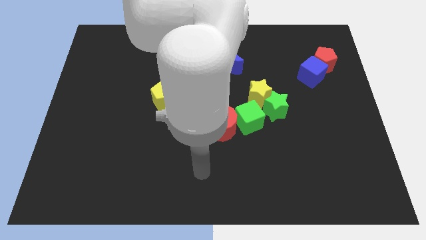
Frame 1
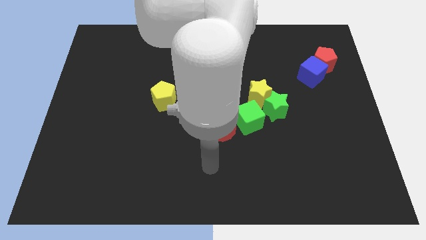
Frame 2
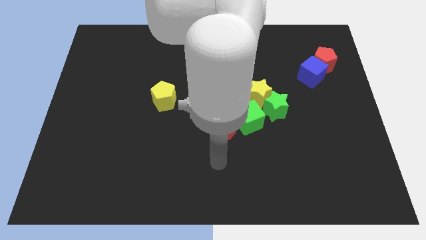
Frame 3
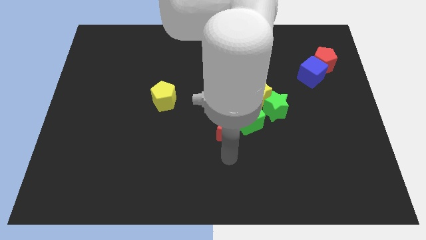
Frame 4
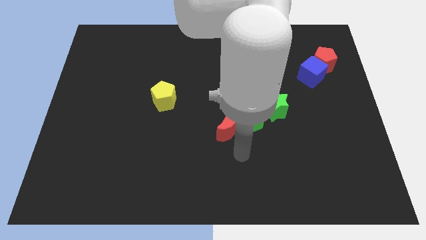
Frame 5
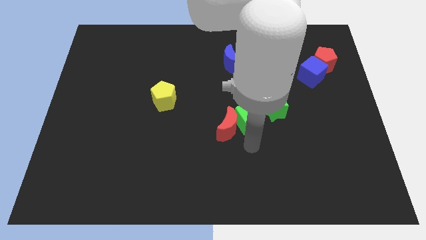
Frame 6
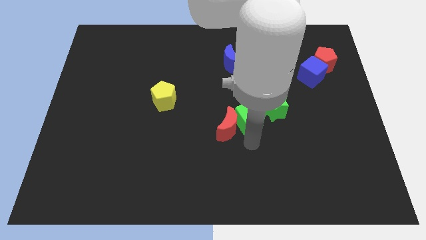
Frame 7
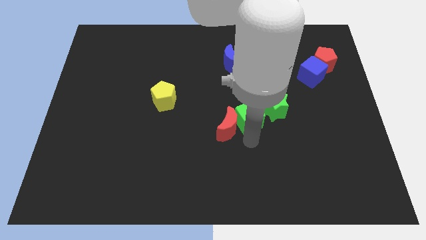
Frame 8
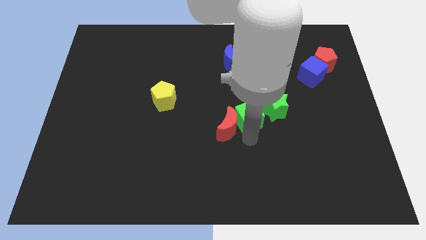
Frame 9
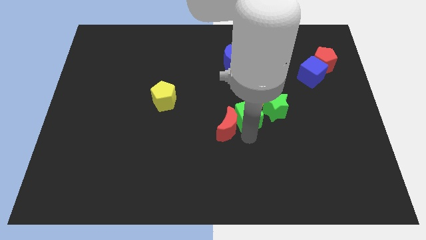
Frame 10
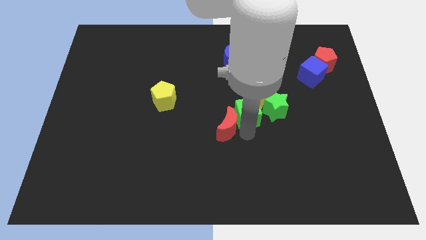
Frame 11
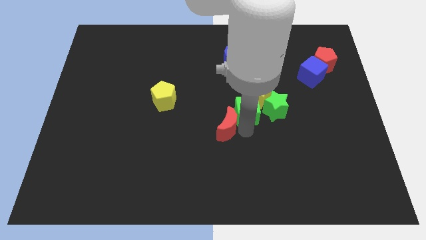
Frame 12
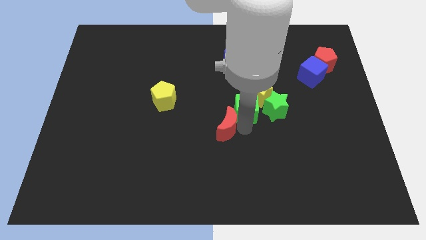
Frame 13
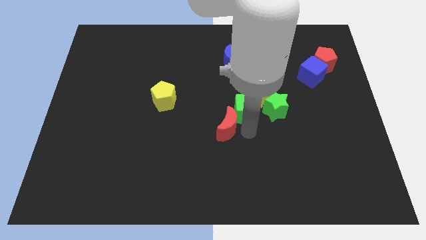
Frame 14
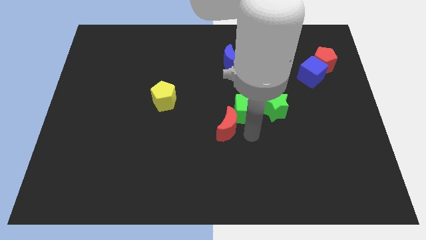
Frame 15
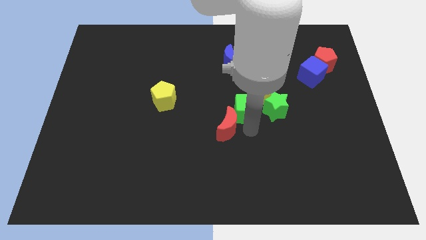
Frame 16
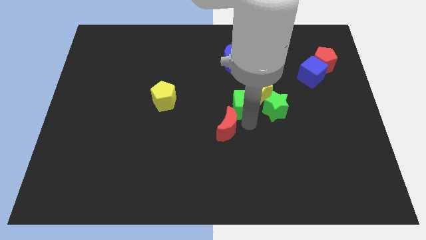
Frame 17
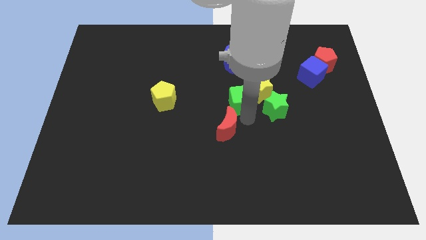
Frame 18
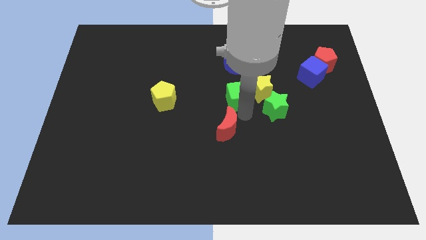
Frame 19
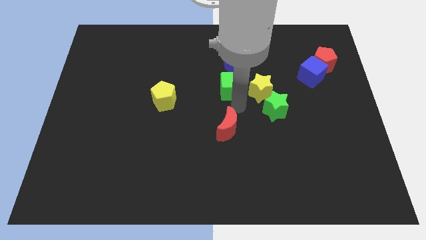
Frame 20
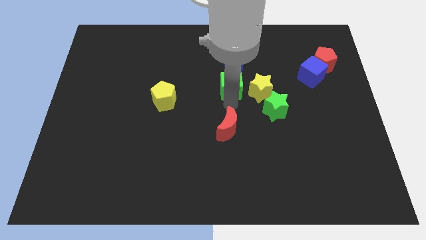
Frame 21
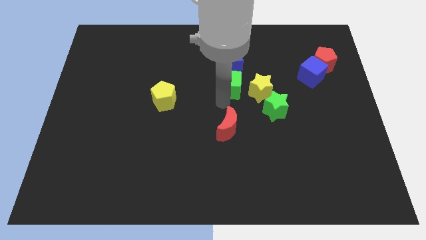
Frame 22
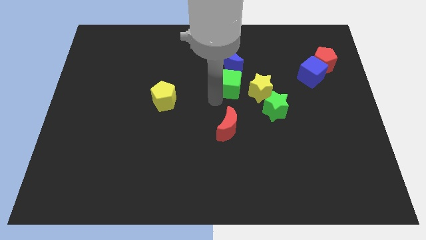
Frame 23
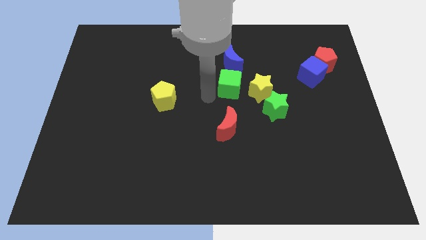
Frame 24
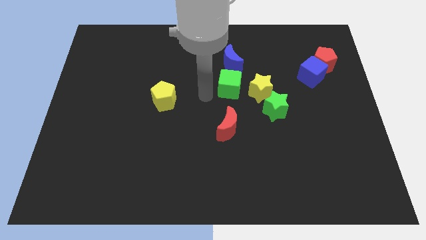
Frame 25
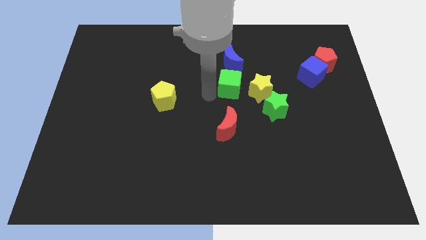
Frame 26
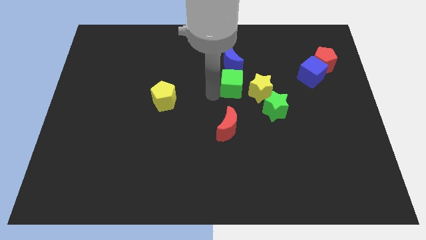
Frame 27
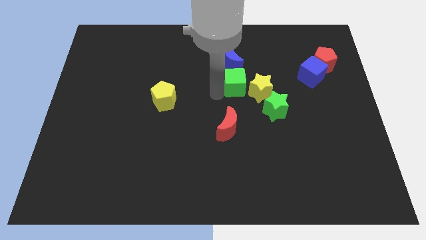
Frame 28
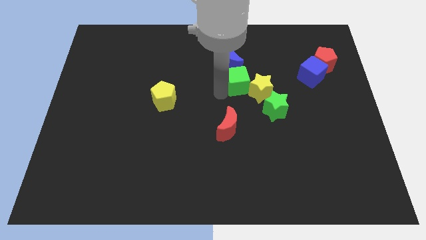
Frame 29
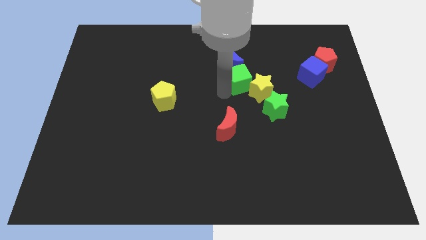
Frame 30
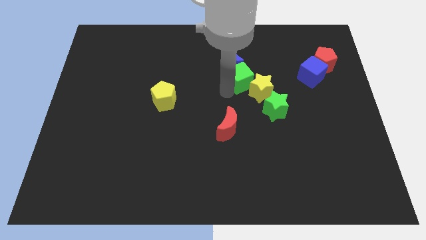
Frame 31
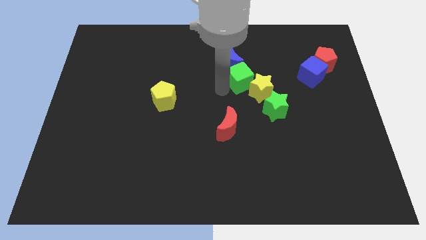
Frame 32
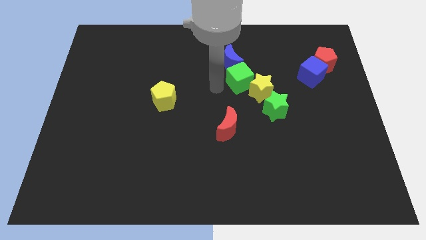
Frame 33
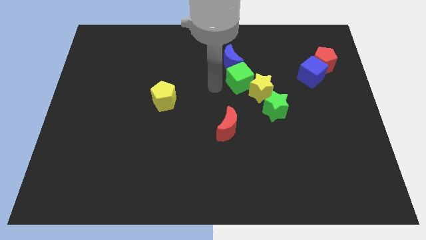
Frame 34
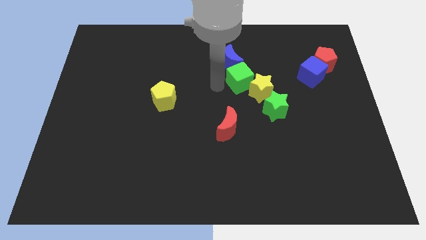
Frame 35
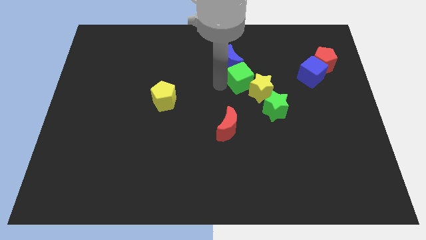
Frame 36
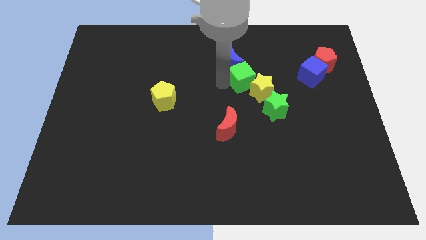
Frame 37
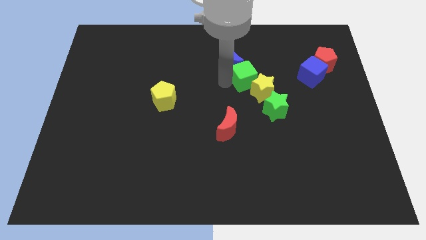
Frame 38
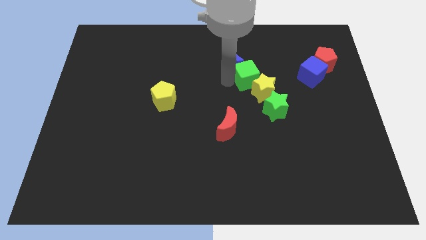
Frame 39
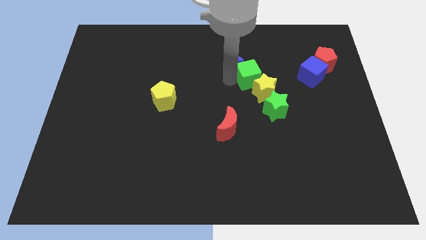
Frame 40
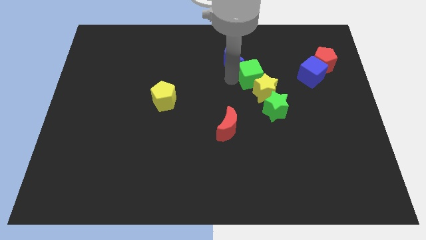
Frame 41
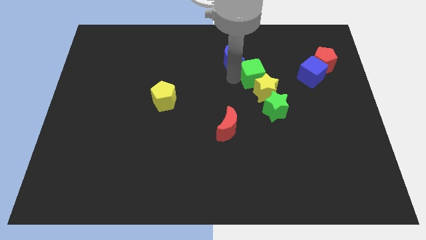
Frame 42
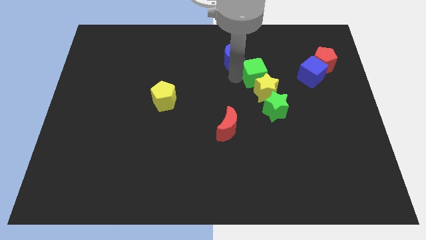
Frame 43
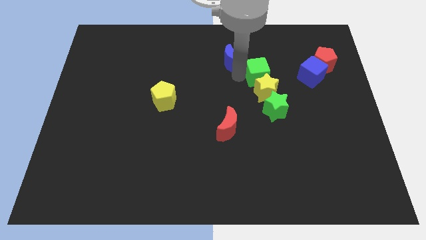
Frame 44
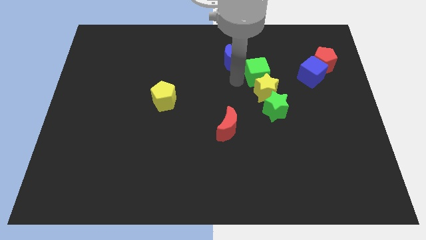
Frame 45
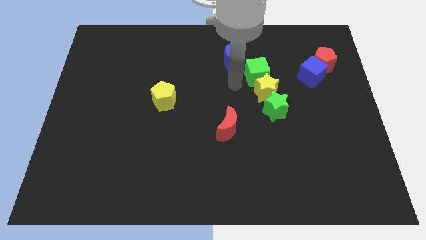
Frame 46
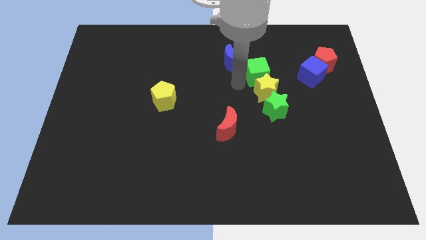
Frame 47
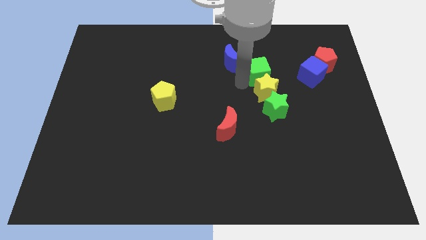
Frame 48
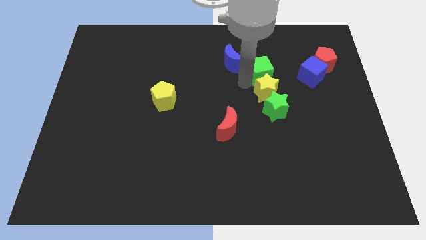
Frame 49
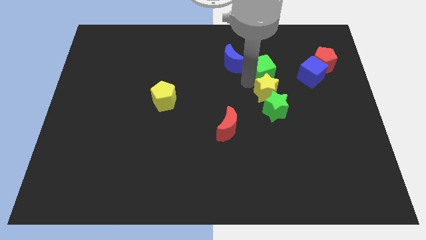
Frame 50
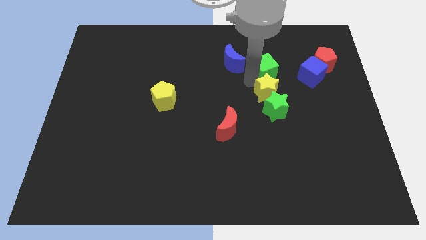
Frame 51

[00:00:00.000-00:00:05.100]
slide the green cube just left of the red pentagon

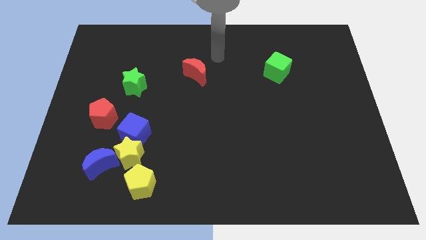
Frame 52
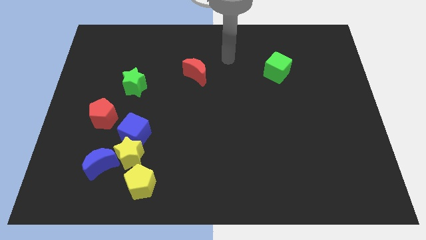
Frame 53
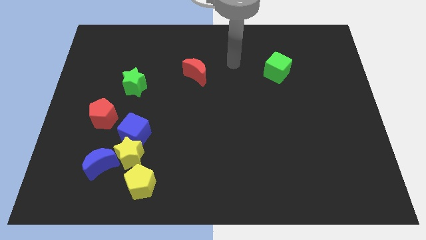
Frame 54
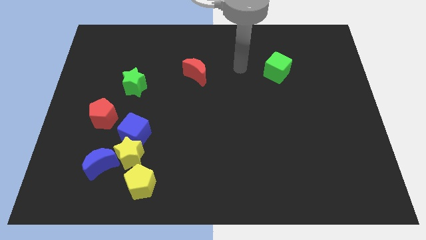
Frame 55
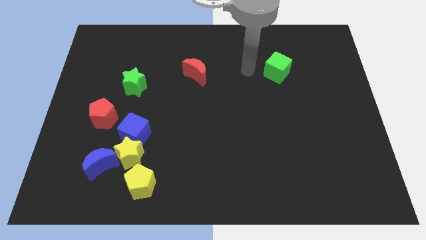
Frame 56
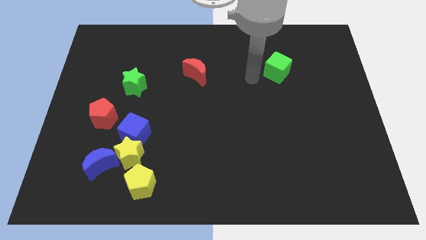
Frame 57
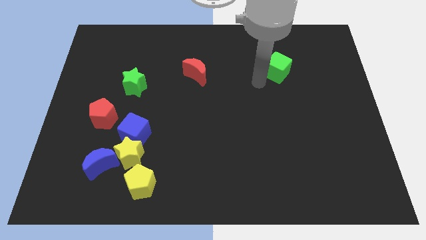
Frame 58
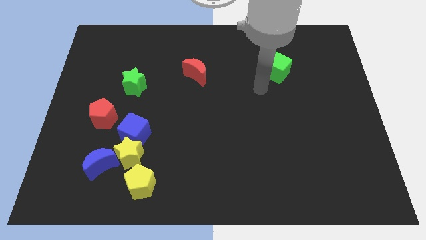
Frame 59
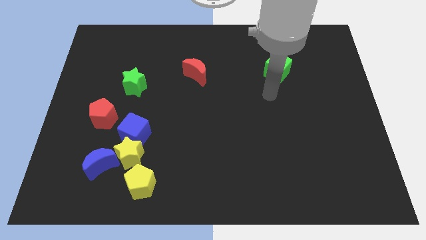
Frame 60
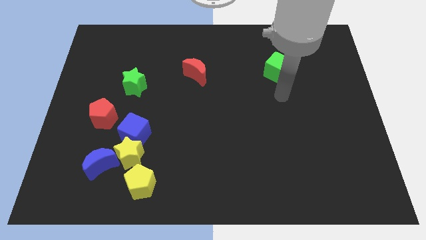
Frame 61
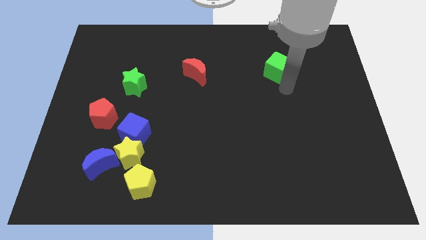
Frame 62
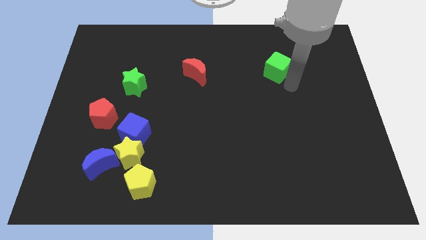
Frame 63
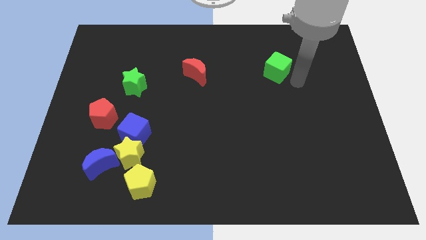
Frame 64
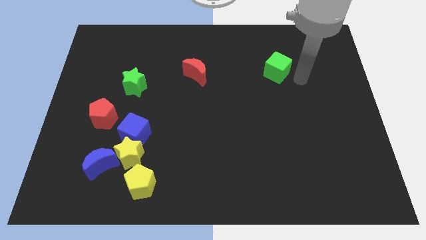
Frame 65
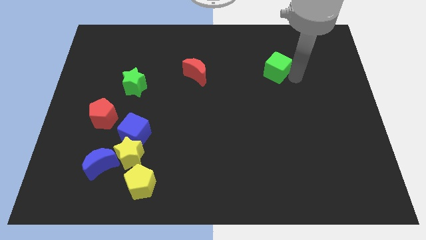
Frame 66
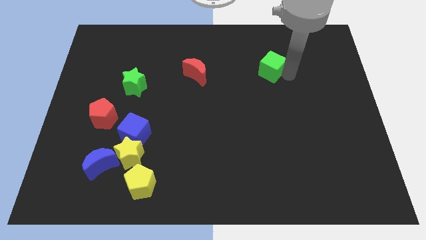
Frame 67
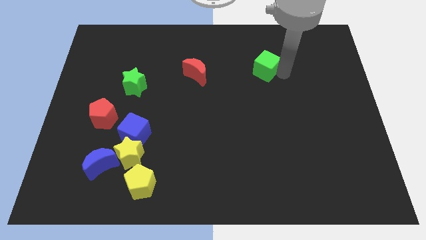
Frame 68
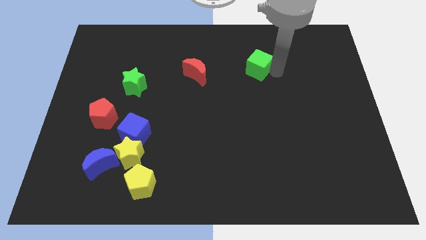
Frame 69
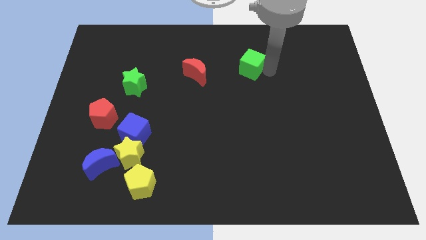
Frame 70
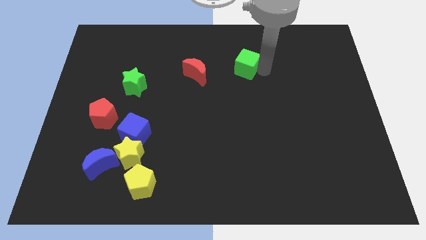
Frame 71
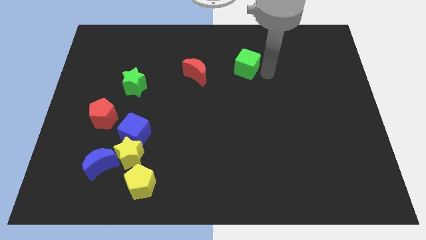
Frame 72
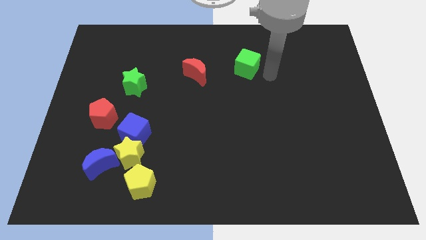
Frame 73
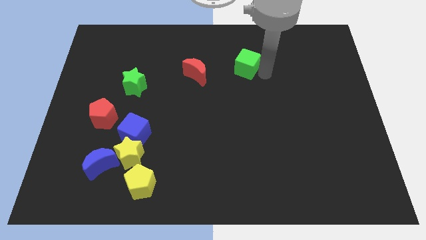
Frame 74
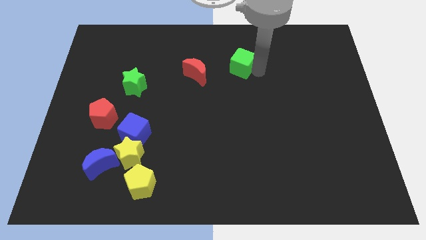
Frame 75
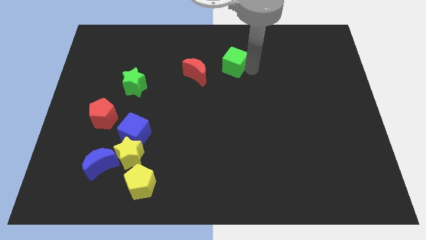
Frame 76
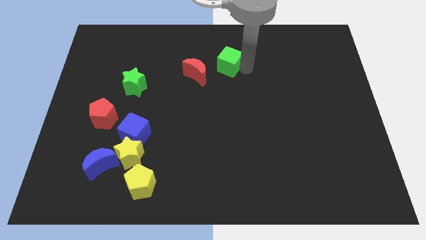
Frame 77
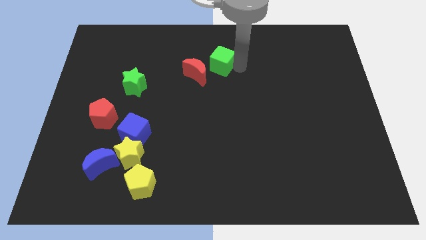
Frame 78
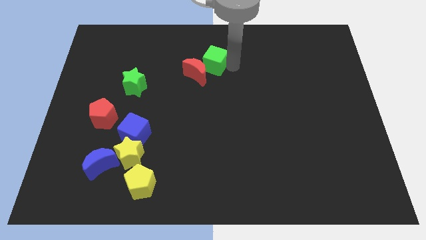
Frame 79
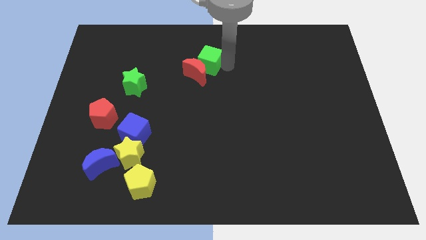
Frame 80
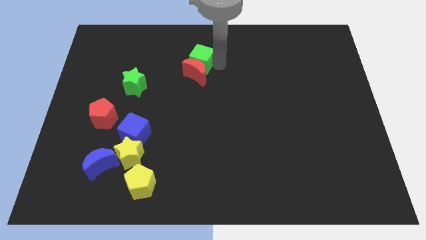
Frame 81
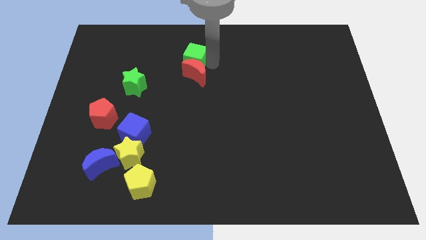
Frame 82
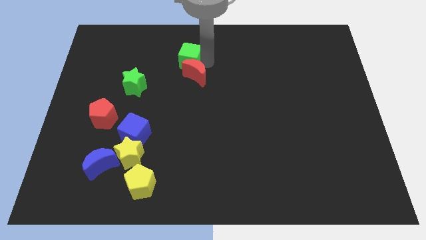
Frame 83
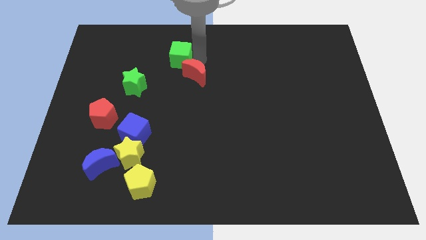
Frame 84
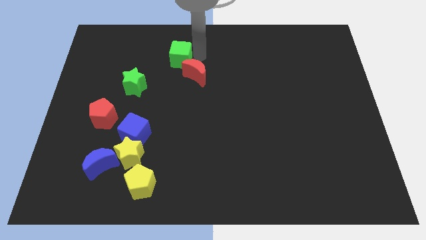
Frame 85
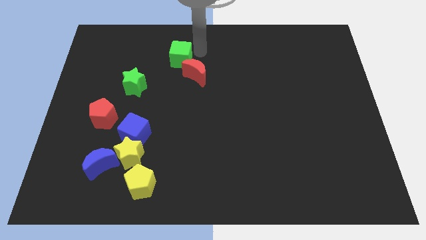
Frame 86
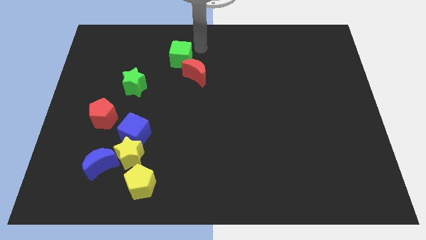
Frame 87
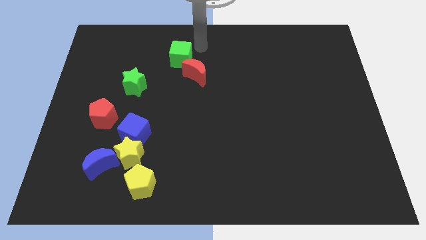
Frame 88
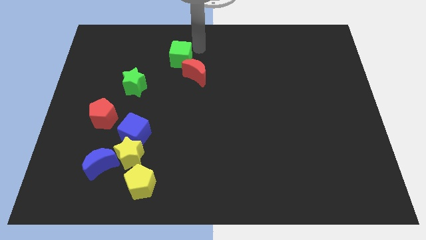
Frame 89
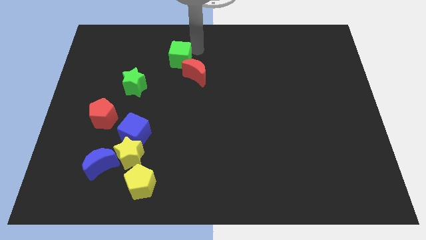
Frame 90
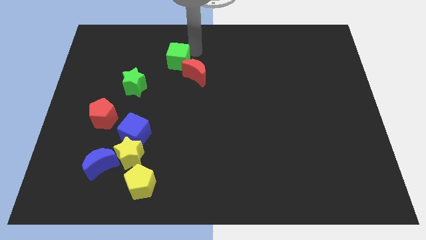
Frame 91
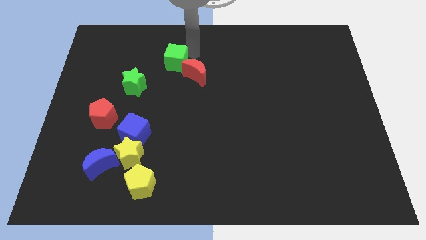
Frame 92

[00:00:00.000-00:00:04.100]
put the green cube to the top right of the green star
